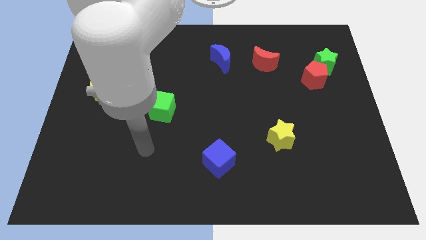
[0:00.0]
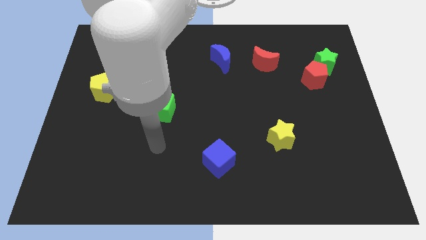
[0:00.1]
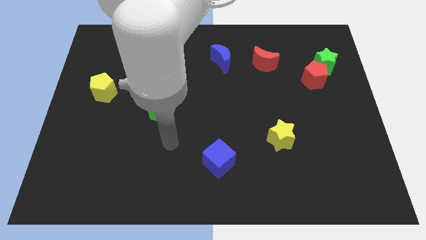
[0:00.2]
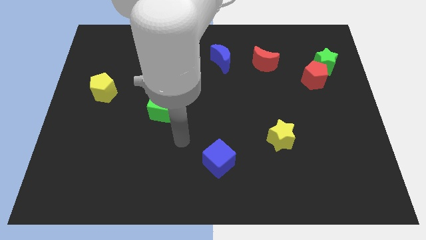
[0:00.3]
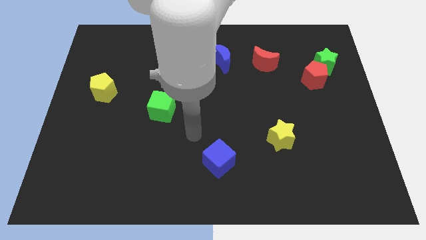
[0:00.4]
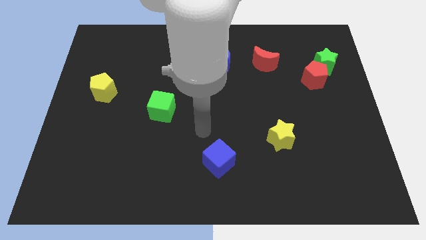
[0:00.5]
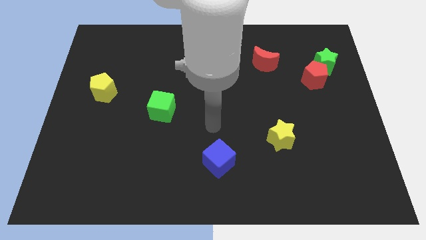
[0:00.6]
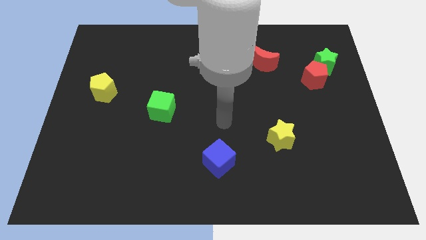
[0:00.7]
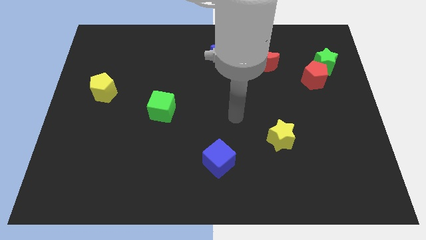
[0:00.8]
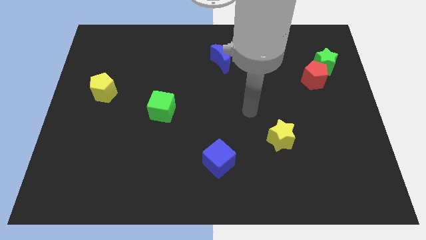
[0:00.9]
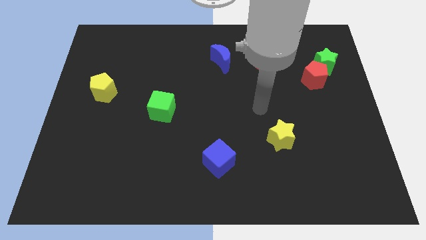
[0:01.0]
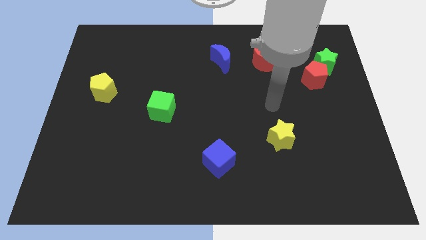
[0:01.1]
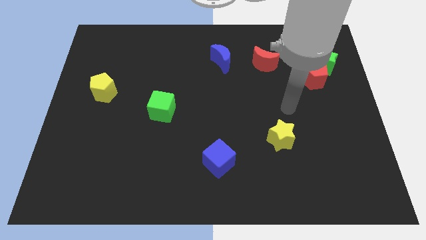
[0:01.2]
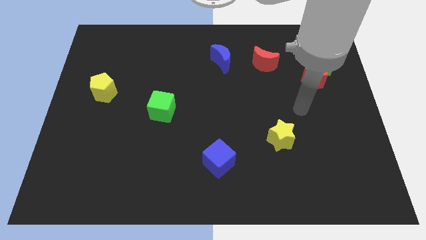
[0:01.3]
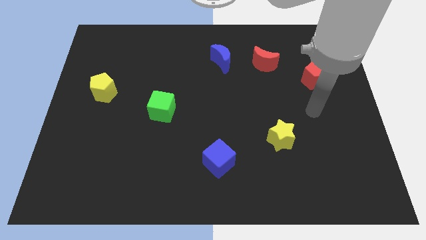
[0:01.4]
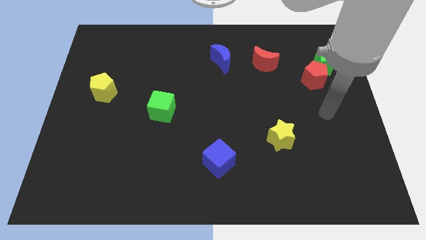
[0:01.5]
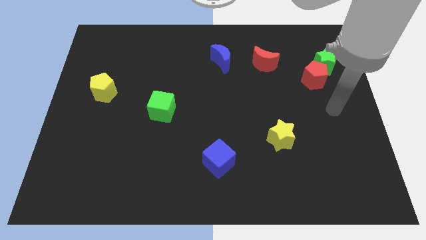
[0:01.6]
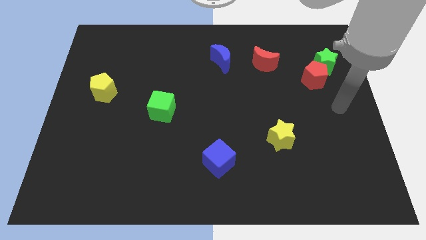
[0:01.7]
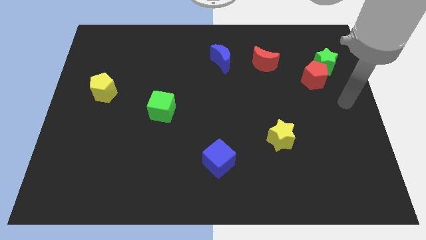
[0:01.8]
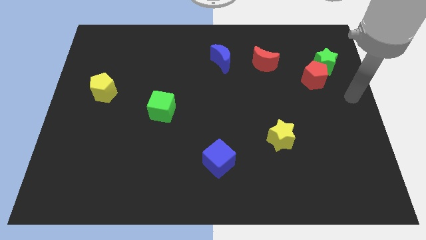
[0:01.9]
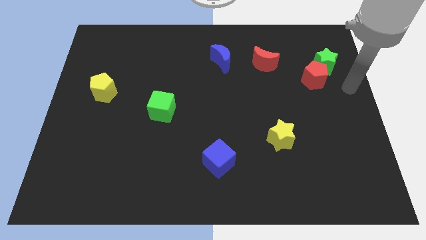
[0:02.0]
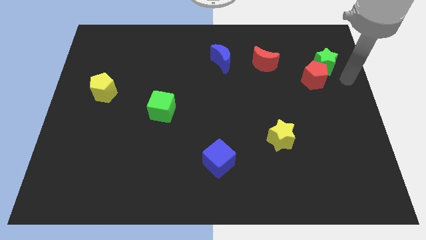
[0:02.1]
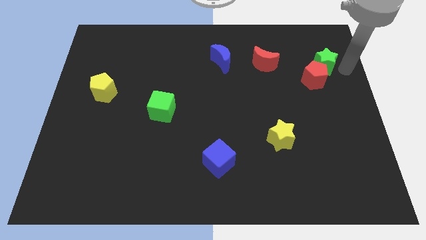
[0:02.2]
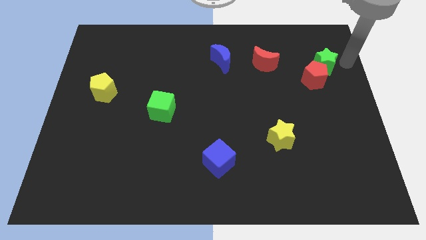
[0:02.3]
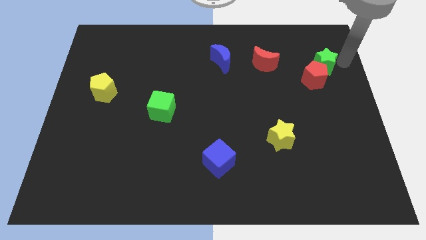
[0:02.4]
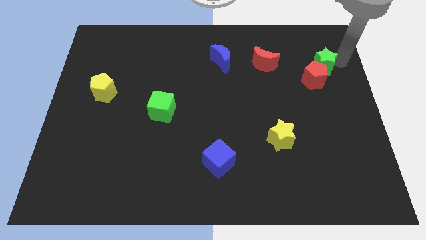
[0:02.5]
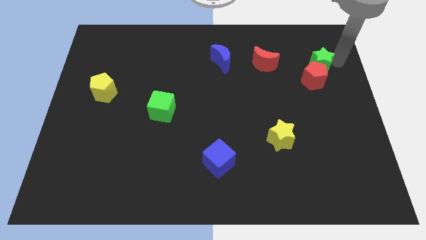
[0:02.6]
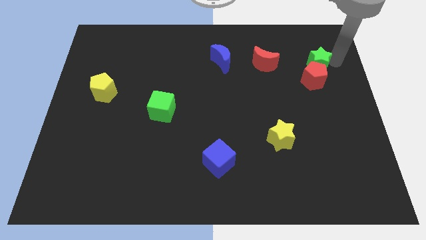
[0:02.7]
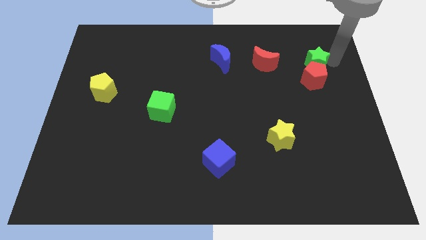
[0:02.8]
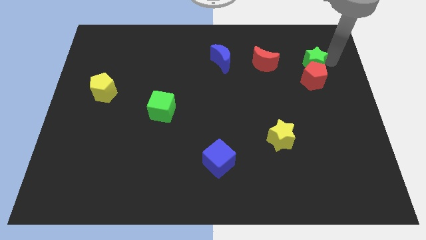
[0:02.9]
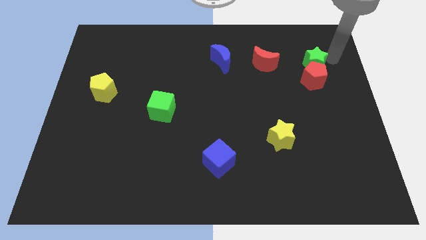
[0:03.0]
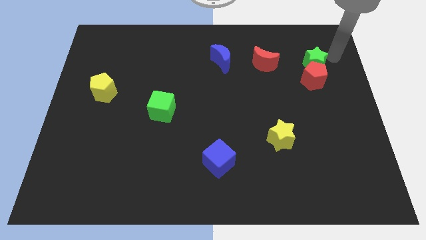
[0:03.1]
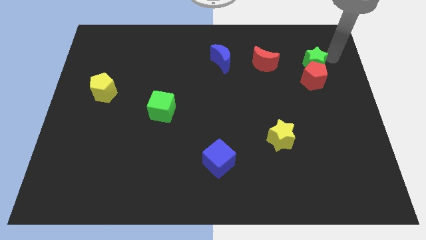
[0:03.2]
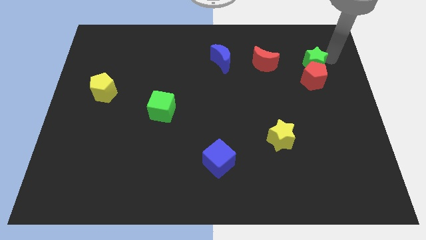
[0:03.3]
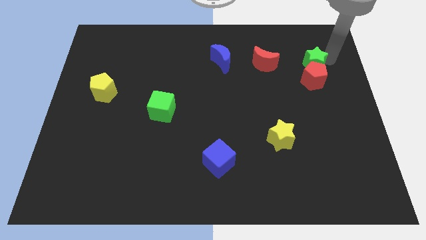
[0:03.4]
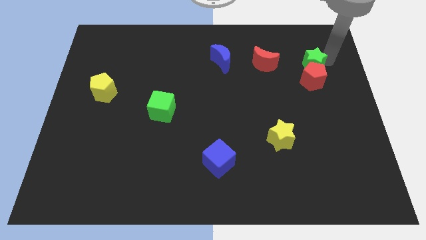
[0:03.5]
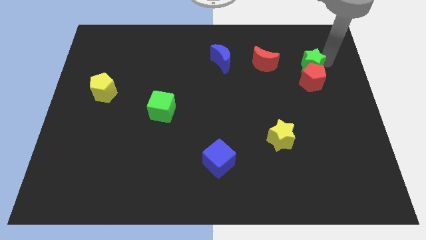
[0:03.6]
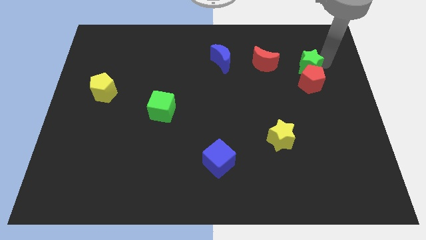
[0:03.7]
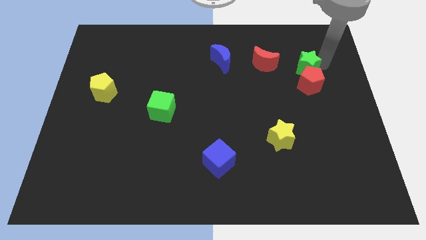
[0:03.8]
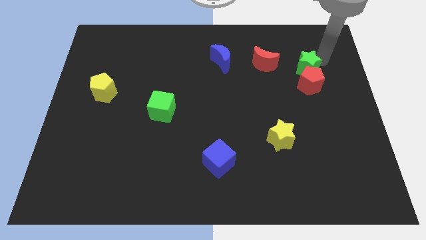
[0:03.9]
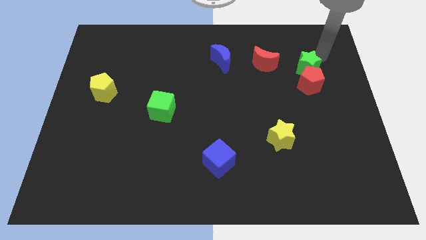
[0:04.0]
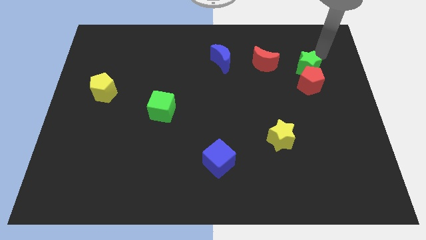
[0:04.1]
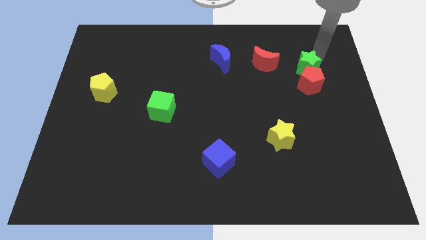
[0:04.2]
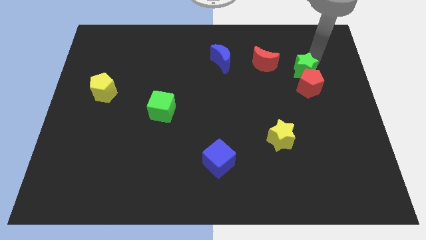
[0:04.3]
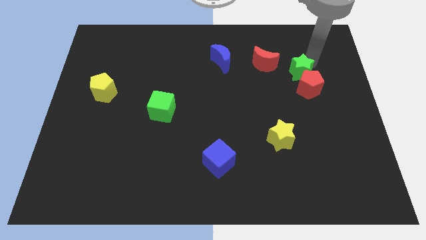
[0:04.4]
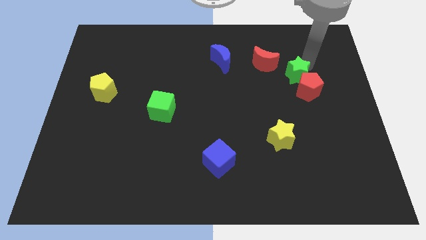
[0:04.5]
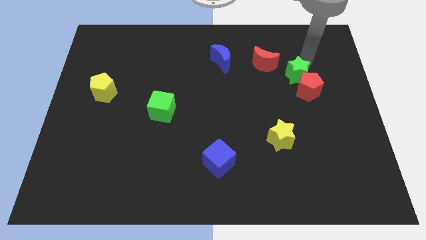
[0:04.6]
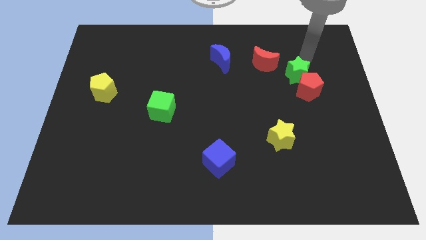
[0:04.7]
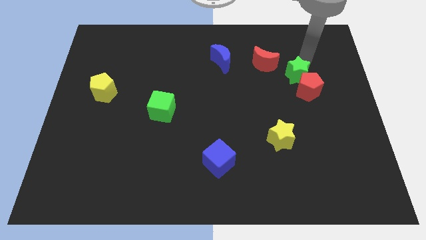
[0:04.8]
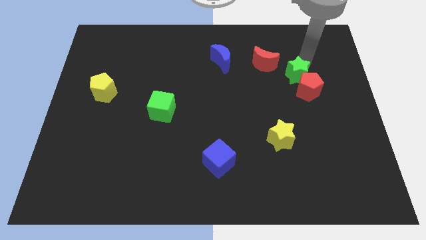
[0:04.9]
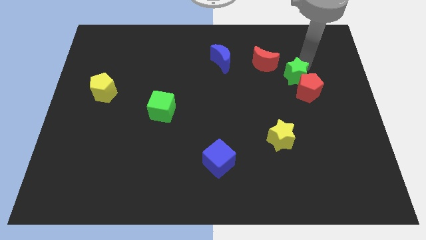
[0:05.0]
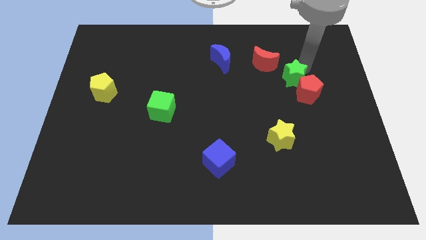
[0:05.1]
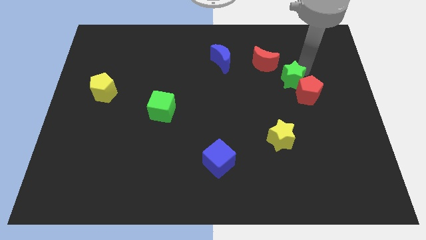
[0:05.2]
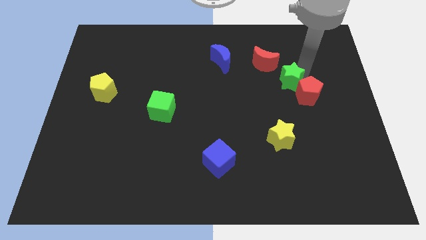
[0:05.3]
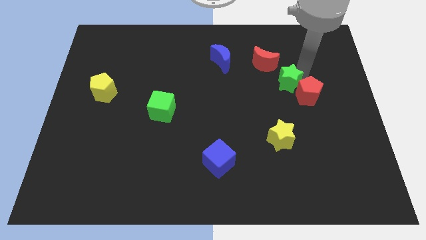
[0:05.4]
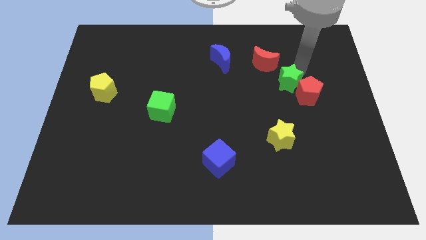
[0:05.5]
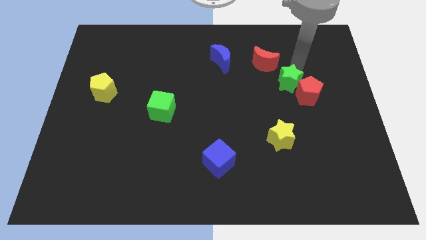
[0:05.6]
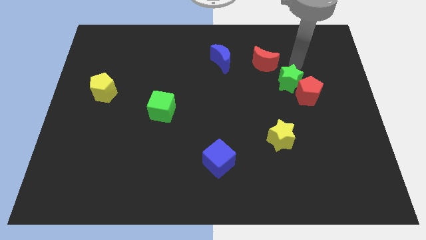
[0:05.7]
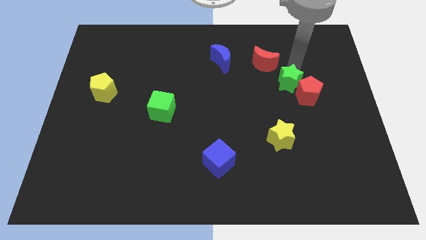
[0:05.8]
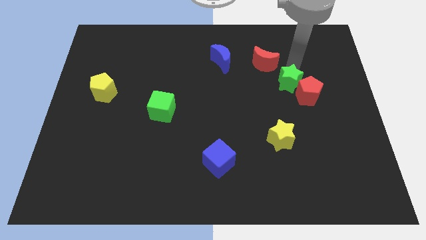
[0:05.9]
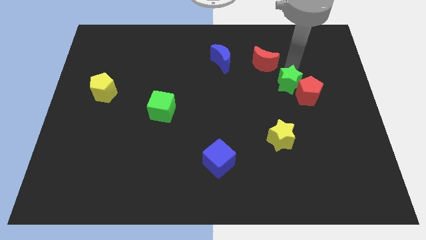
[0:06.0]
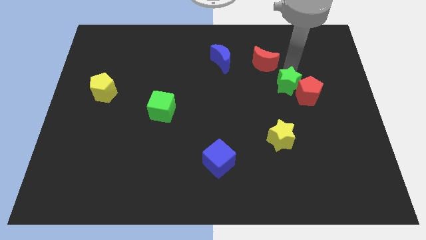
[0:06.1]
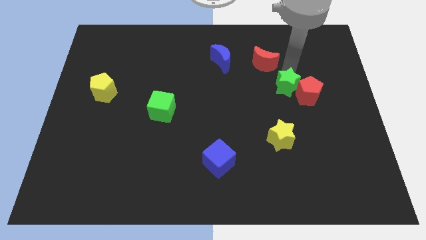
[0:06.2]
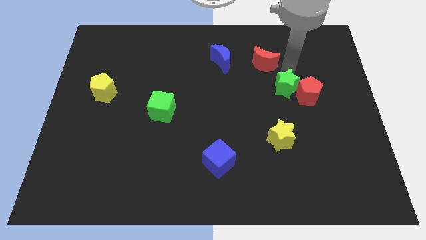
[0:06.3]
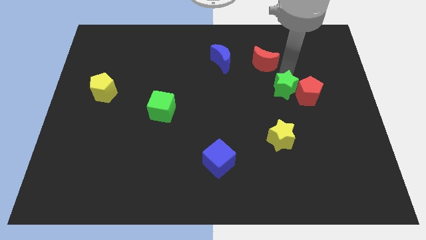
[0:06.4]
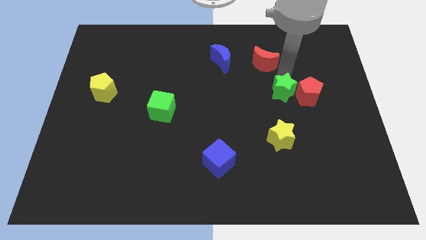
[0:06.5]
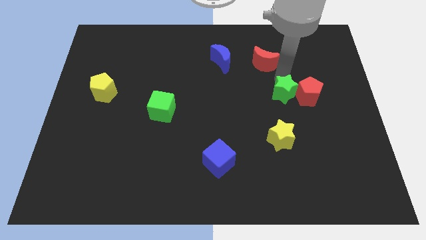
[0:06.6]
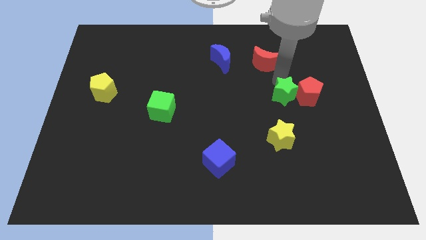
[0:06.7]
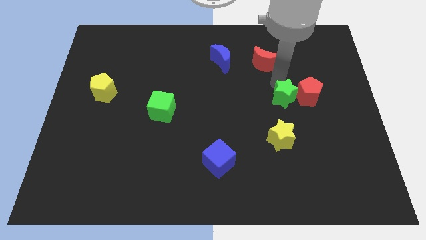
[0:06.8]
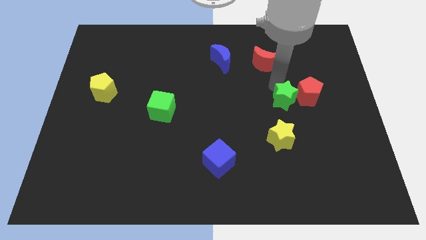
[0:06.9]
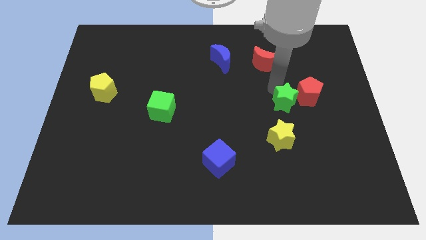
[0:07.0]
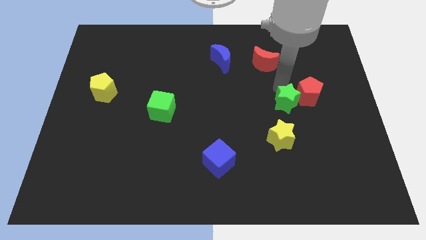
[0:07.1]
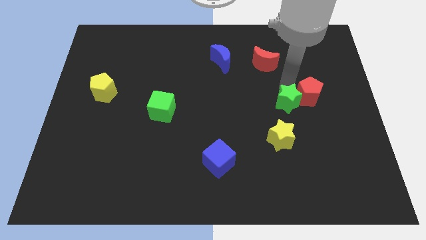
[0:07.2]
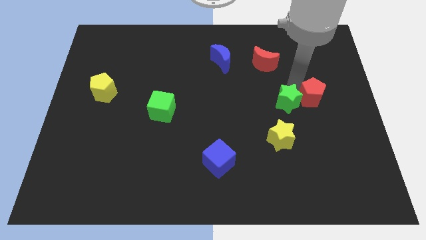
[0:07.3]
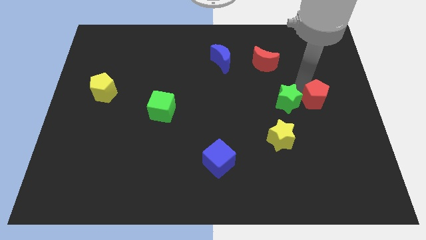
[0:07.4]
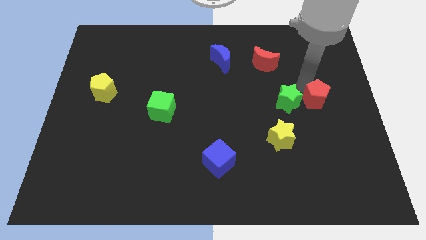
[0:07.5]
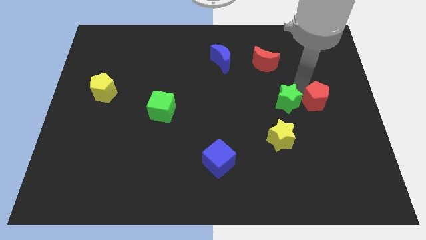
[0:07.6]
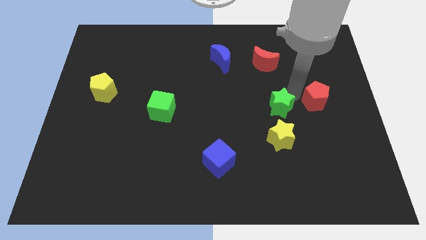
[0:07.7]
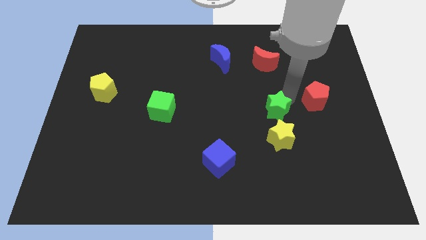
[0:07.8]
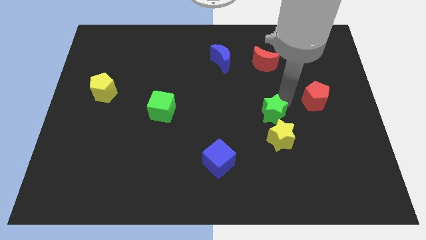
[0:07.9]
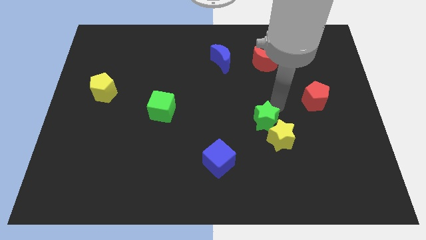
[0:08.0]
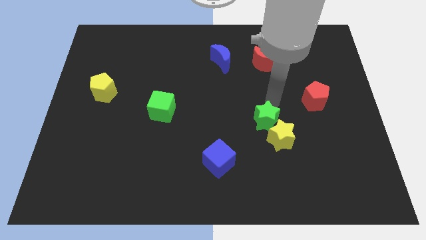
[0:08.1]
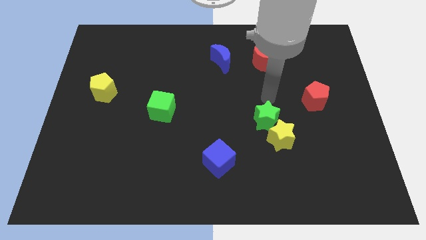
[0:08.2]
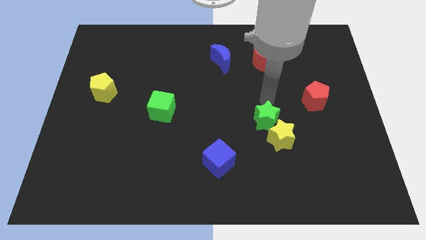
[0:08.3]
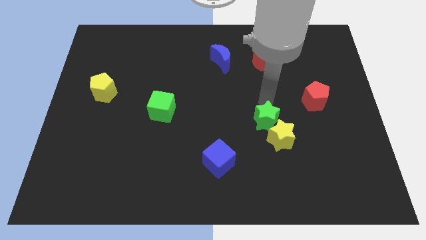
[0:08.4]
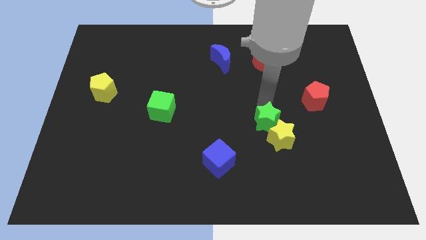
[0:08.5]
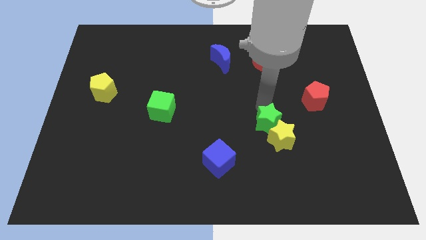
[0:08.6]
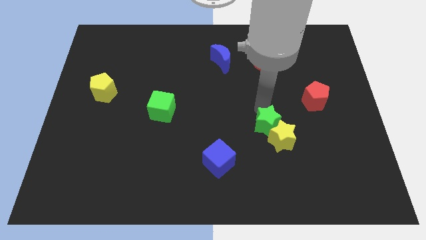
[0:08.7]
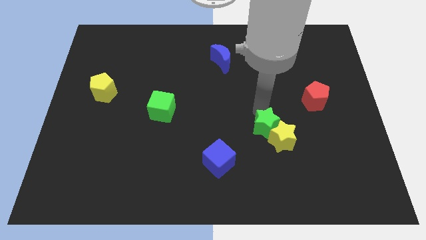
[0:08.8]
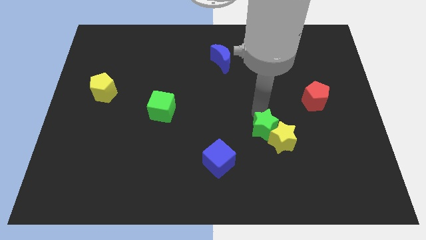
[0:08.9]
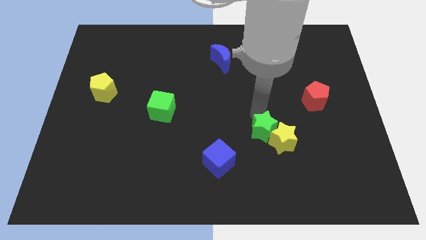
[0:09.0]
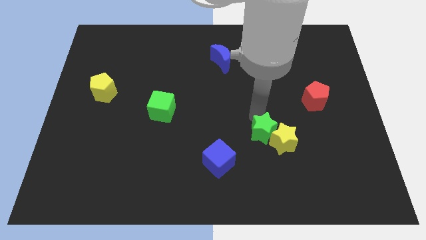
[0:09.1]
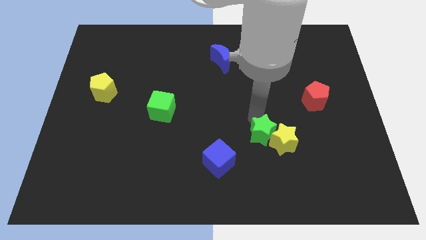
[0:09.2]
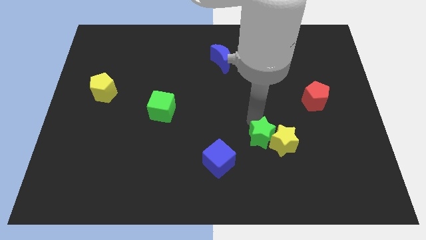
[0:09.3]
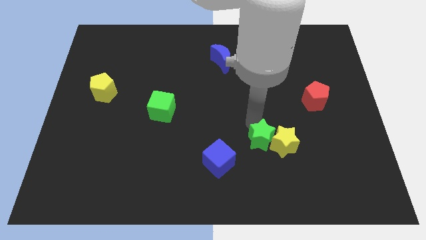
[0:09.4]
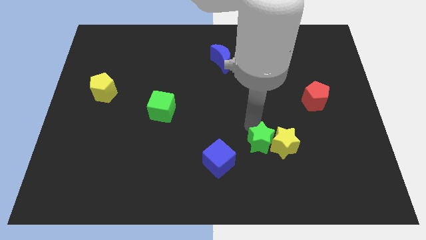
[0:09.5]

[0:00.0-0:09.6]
slide the green star to the right of the blue cube
